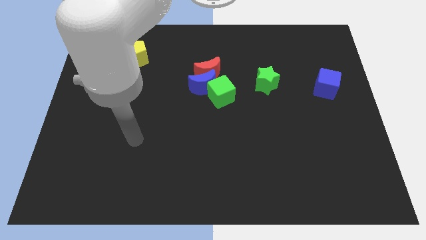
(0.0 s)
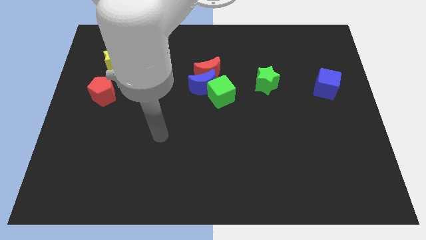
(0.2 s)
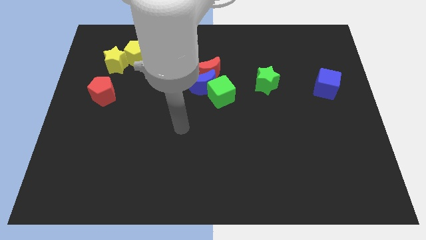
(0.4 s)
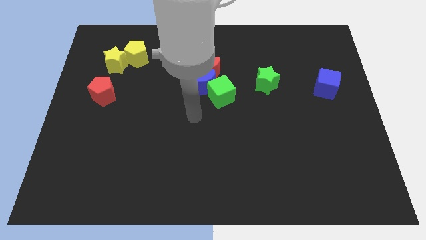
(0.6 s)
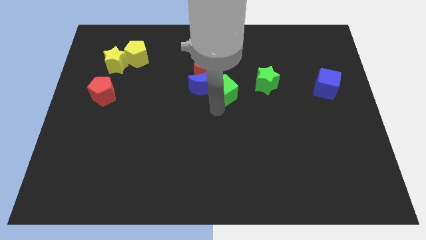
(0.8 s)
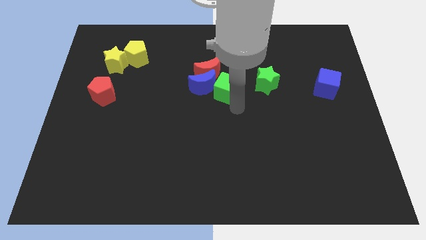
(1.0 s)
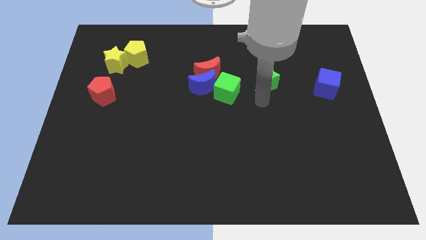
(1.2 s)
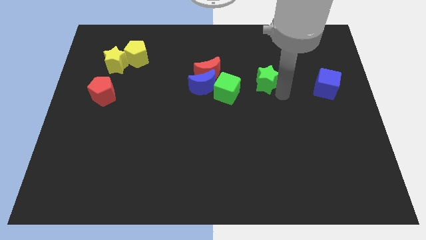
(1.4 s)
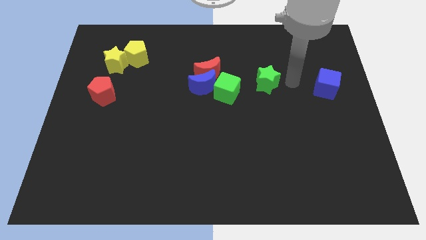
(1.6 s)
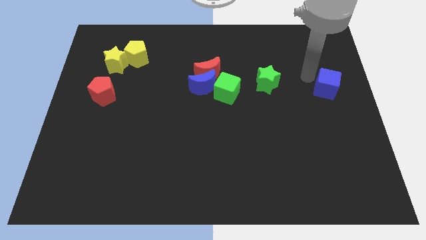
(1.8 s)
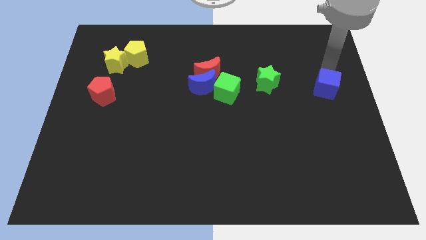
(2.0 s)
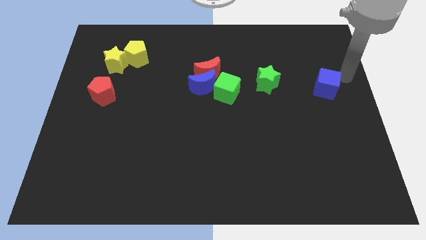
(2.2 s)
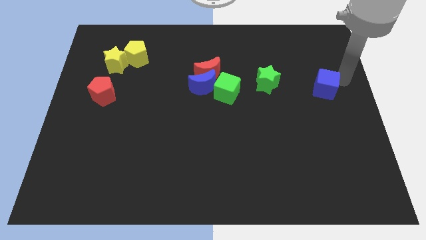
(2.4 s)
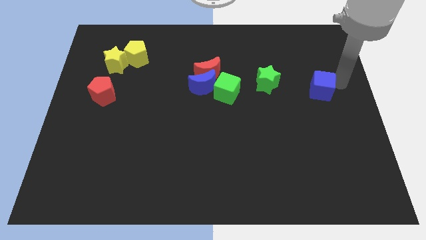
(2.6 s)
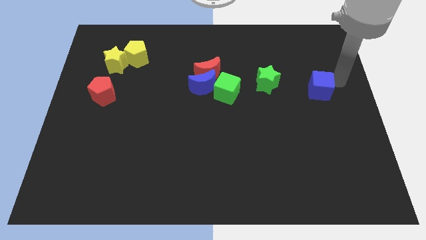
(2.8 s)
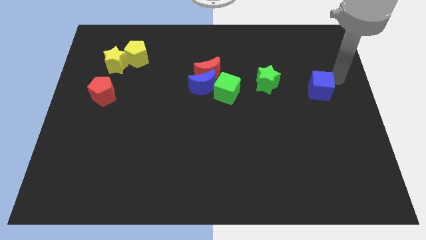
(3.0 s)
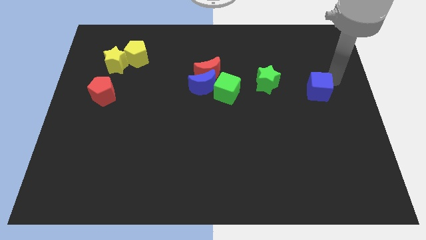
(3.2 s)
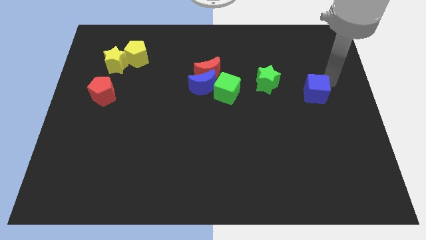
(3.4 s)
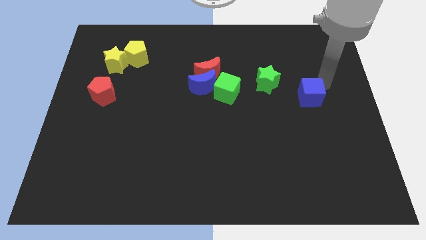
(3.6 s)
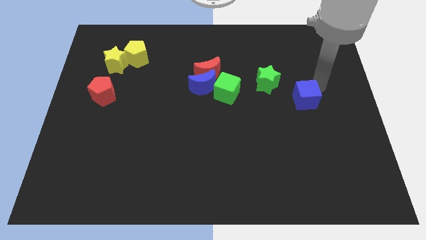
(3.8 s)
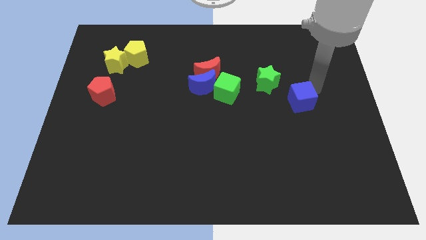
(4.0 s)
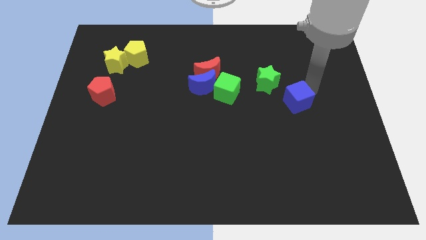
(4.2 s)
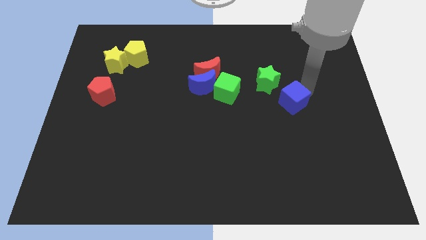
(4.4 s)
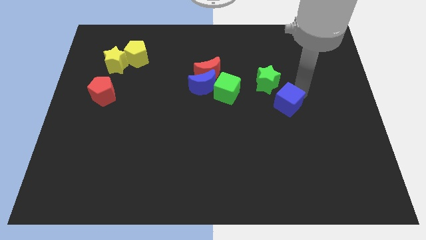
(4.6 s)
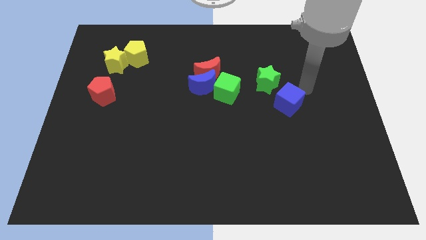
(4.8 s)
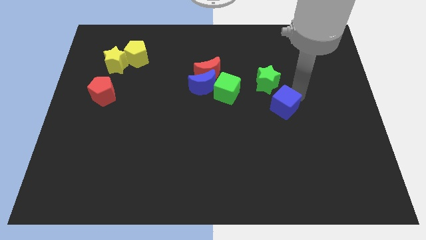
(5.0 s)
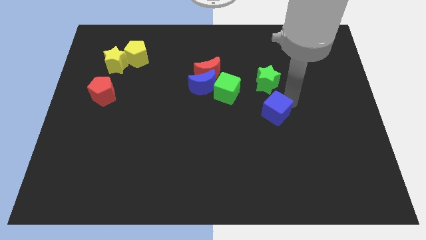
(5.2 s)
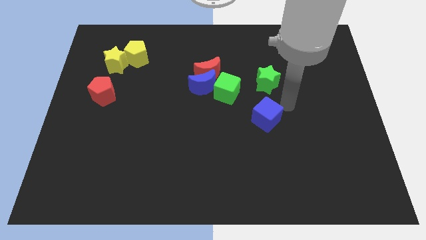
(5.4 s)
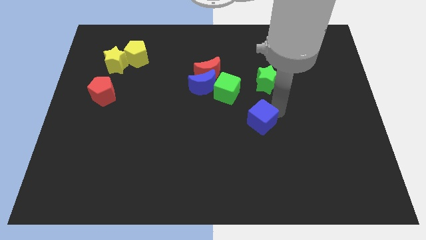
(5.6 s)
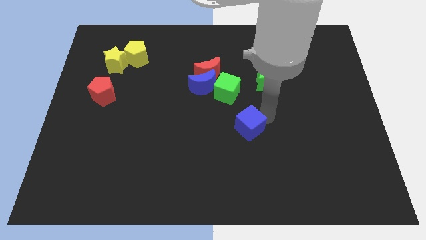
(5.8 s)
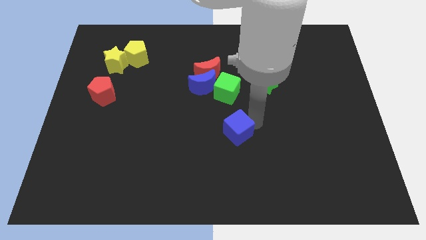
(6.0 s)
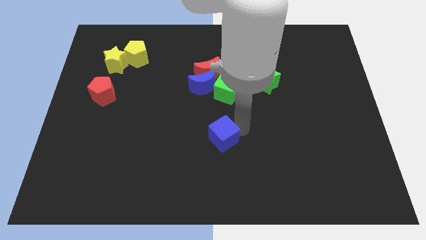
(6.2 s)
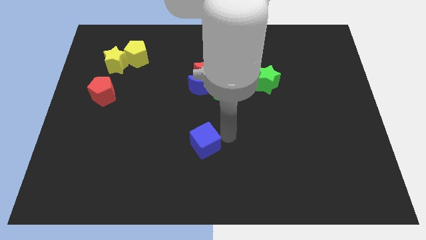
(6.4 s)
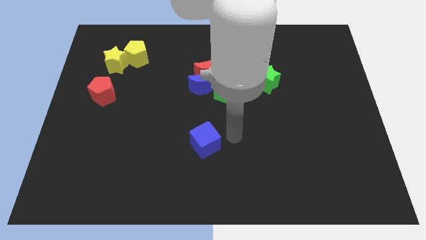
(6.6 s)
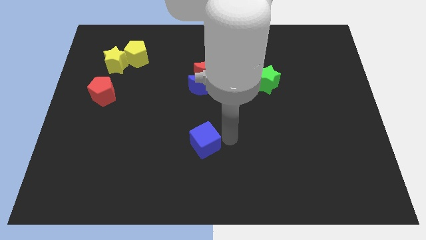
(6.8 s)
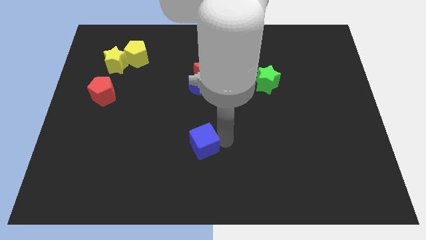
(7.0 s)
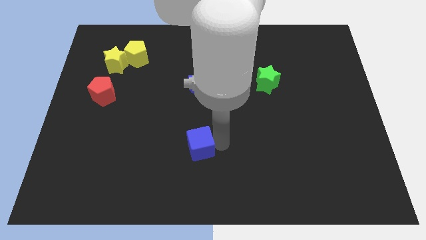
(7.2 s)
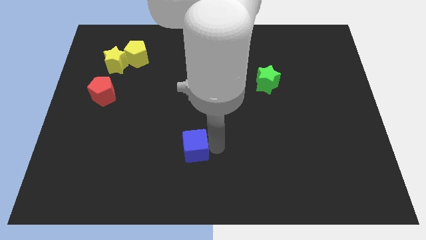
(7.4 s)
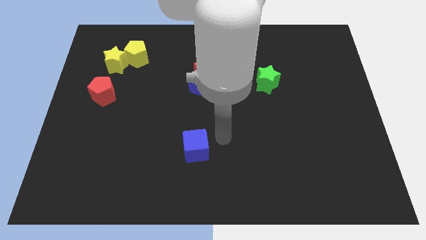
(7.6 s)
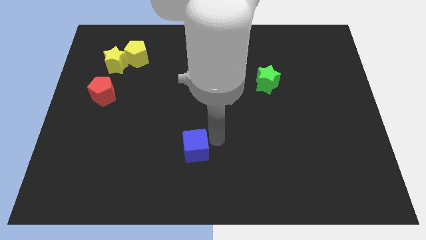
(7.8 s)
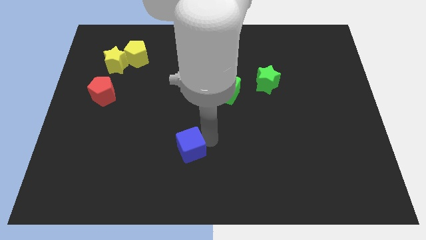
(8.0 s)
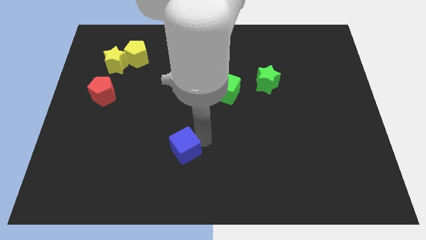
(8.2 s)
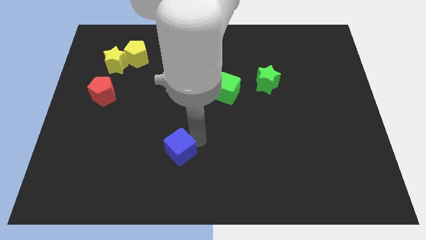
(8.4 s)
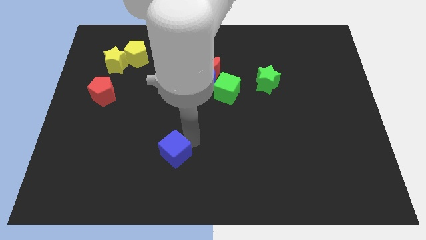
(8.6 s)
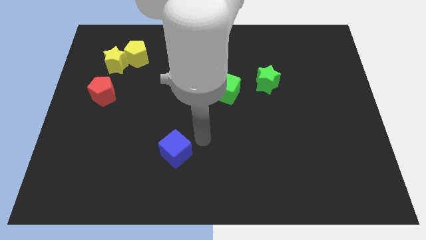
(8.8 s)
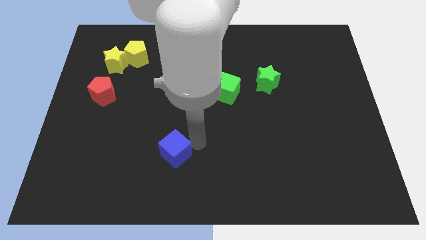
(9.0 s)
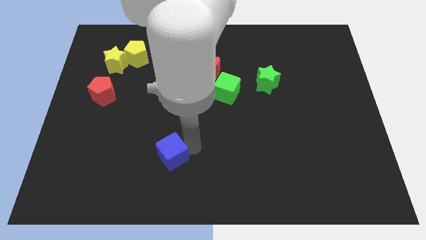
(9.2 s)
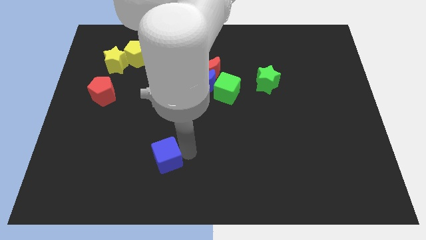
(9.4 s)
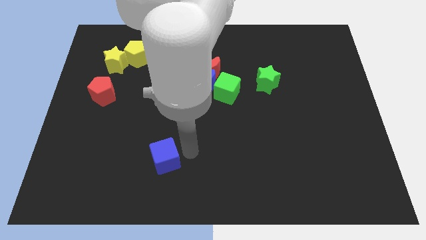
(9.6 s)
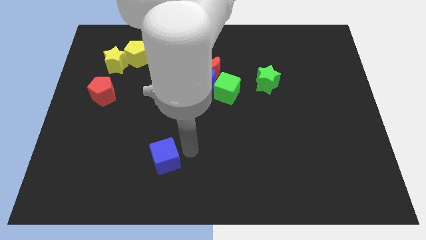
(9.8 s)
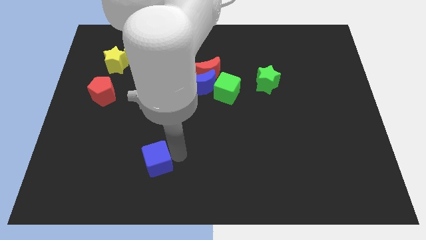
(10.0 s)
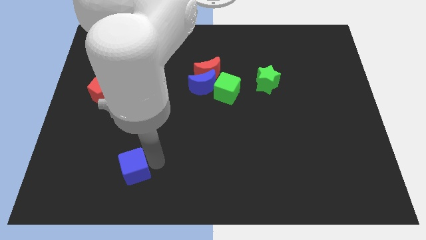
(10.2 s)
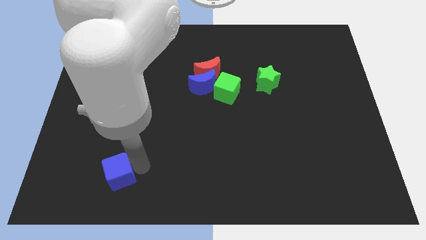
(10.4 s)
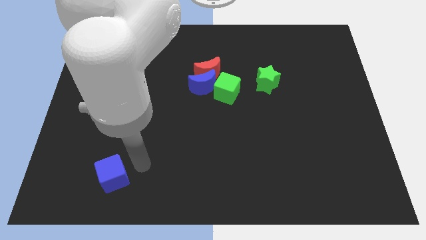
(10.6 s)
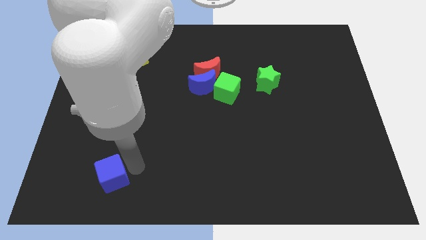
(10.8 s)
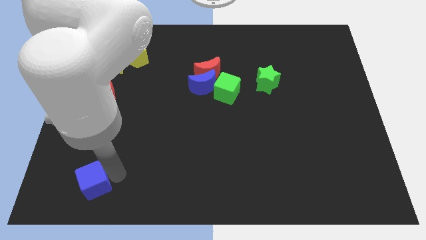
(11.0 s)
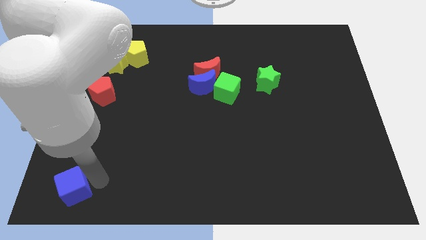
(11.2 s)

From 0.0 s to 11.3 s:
move the blue cube to the bottom left corner
